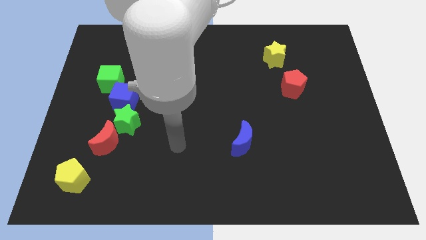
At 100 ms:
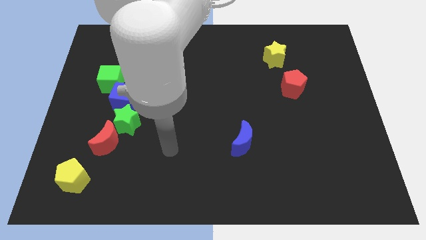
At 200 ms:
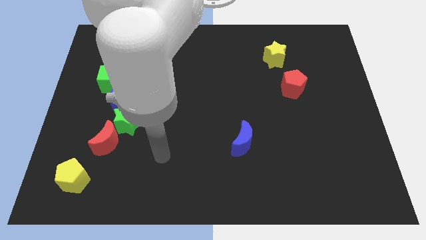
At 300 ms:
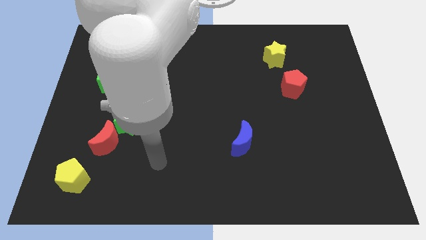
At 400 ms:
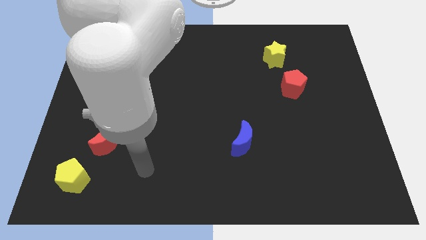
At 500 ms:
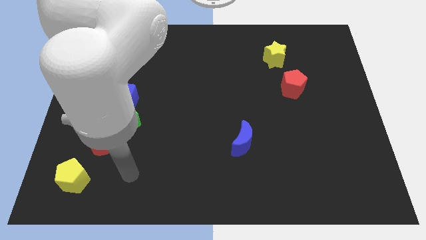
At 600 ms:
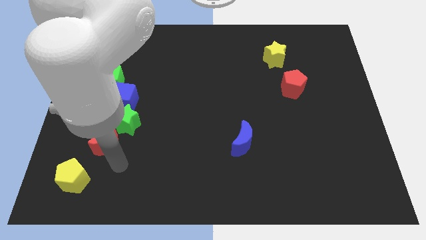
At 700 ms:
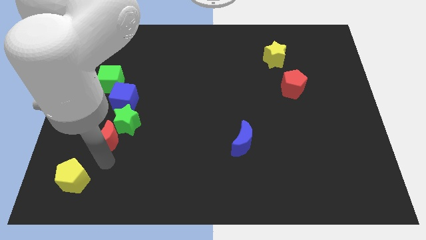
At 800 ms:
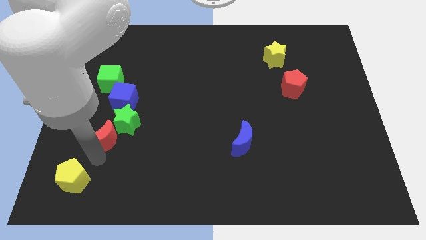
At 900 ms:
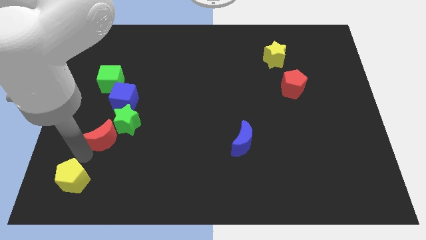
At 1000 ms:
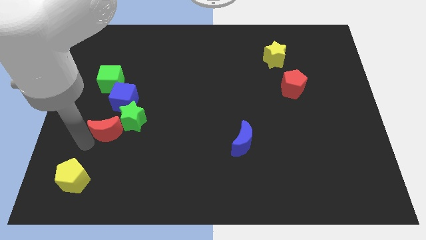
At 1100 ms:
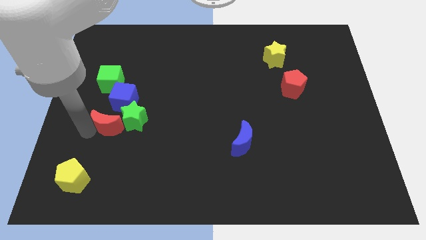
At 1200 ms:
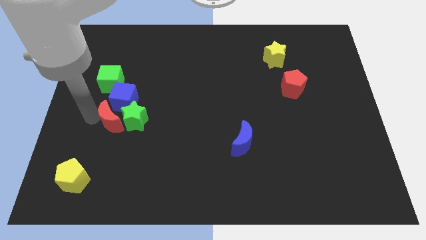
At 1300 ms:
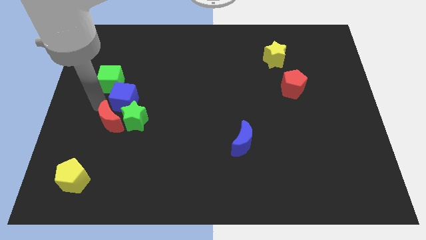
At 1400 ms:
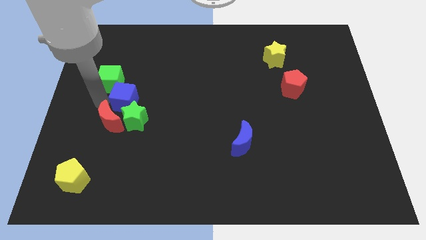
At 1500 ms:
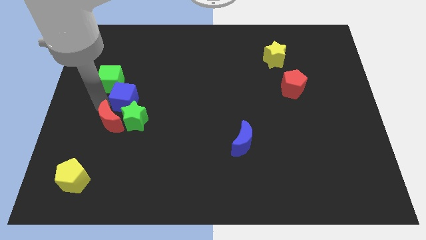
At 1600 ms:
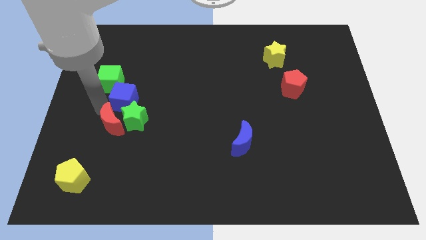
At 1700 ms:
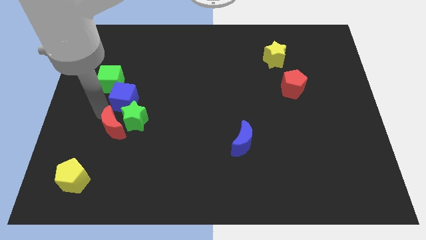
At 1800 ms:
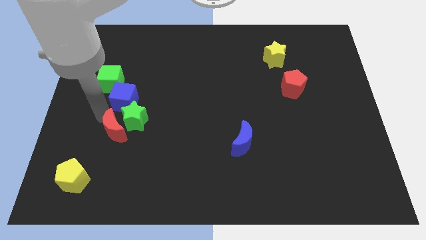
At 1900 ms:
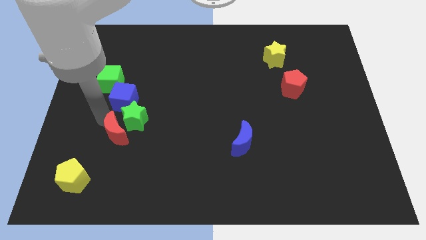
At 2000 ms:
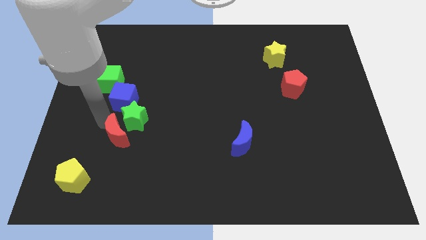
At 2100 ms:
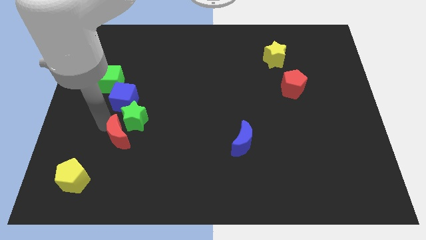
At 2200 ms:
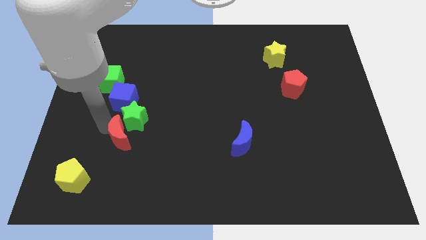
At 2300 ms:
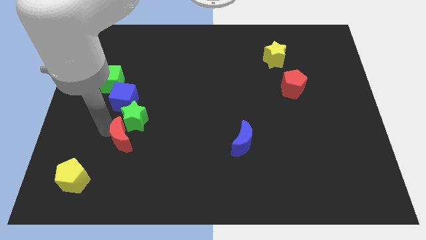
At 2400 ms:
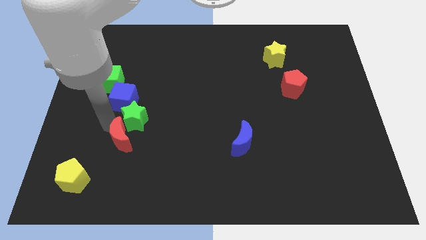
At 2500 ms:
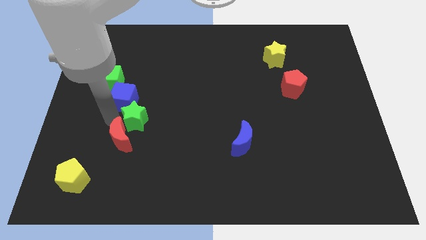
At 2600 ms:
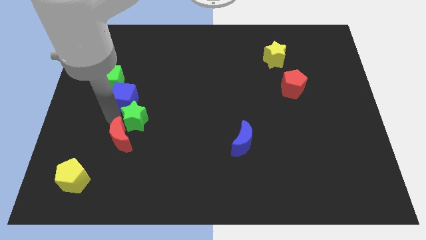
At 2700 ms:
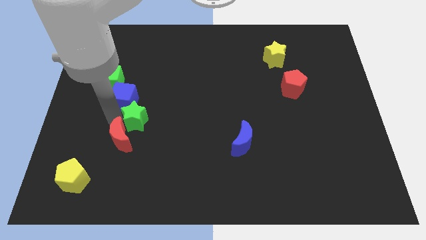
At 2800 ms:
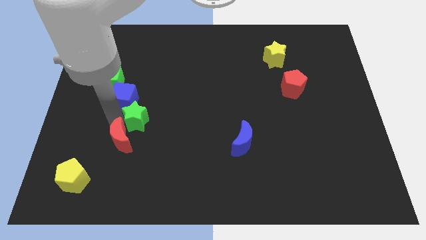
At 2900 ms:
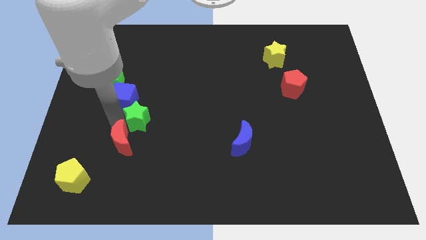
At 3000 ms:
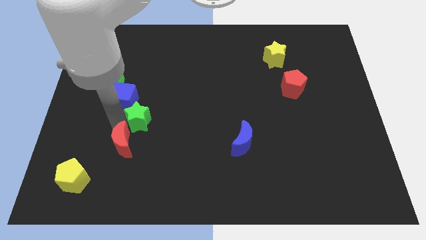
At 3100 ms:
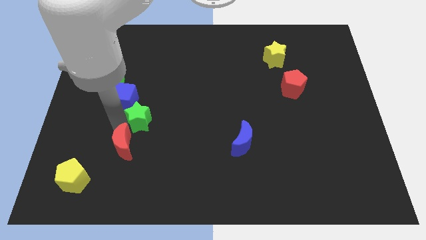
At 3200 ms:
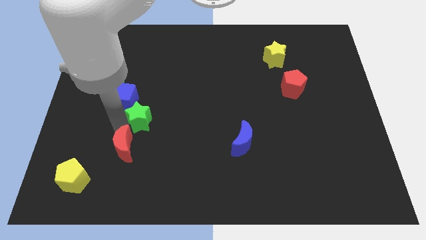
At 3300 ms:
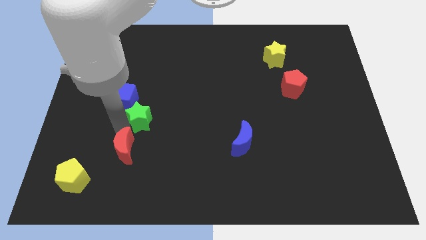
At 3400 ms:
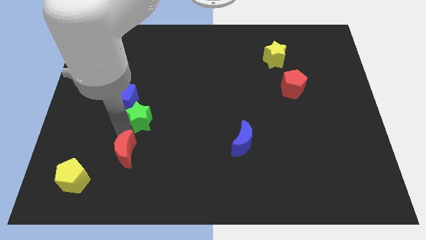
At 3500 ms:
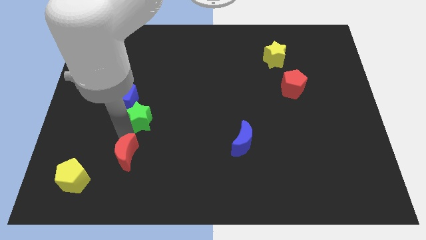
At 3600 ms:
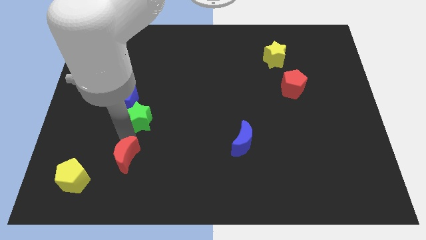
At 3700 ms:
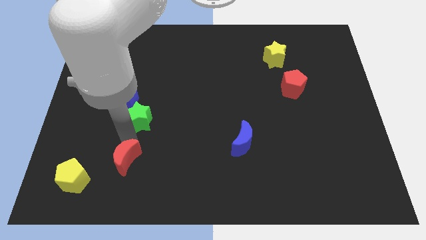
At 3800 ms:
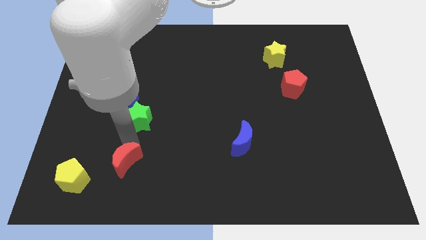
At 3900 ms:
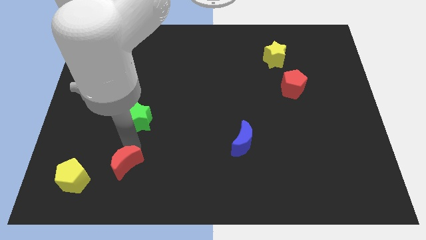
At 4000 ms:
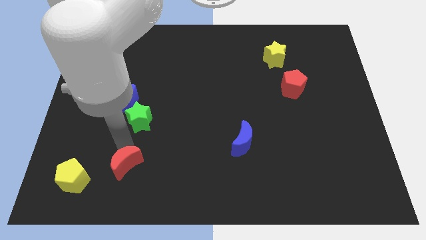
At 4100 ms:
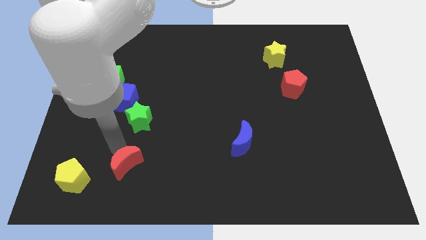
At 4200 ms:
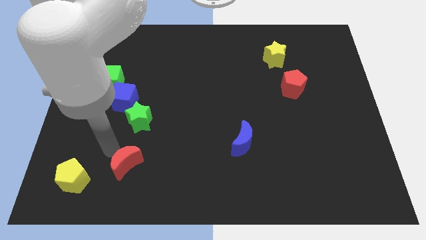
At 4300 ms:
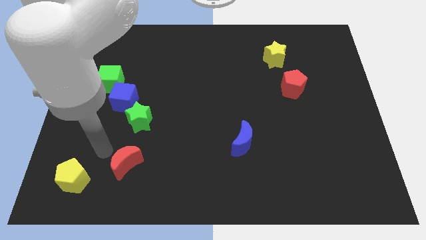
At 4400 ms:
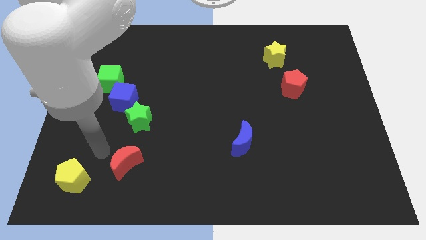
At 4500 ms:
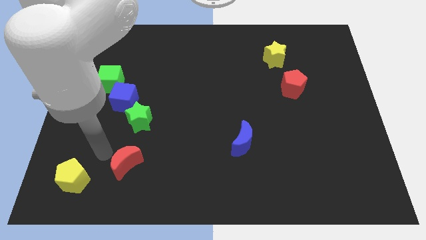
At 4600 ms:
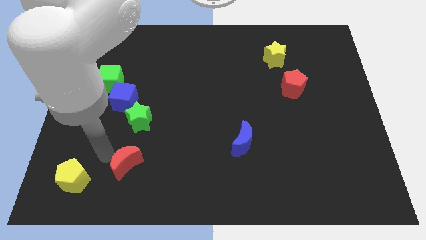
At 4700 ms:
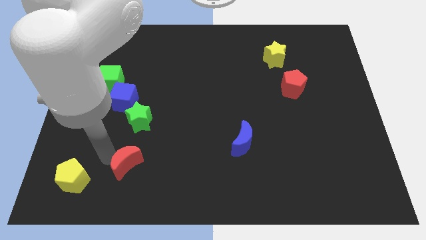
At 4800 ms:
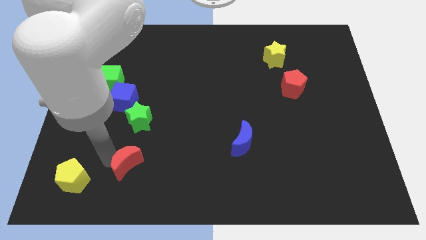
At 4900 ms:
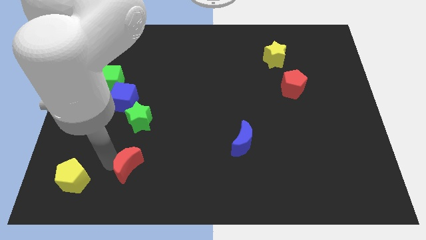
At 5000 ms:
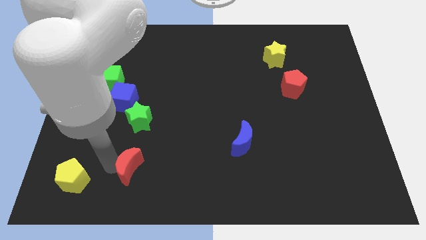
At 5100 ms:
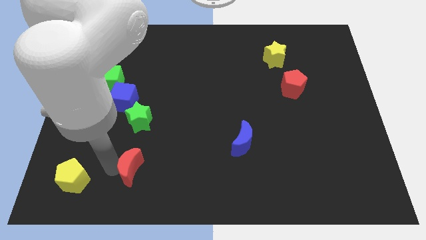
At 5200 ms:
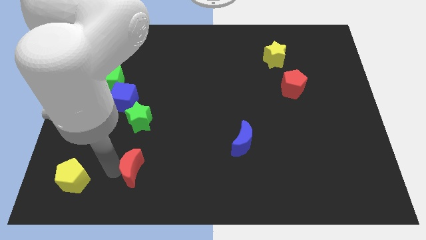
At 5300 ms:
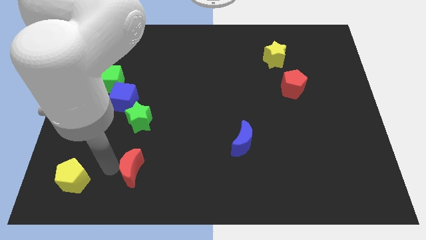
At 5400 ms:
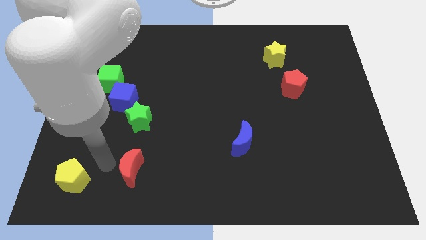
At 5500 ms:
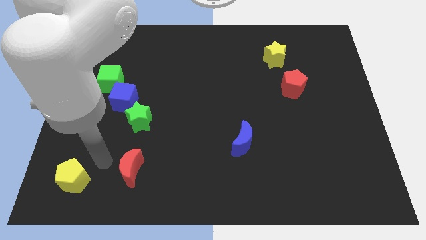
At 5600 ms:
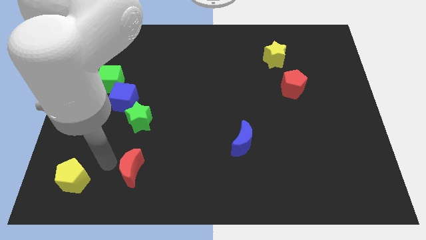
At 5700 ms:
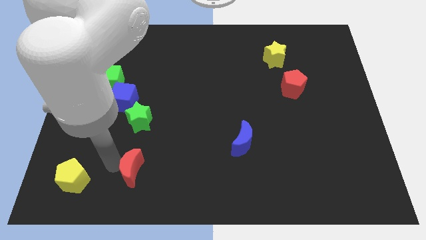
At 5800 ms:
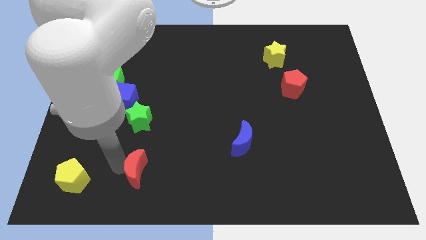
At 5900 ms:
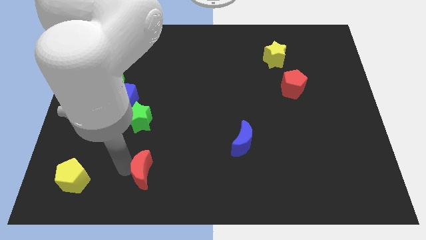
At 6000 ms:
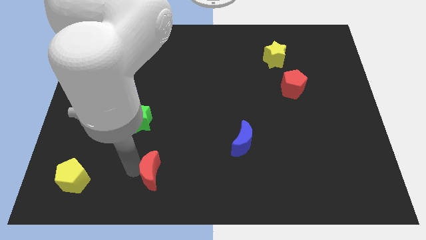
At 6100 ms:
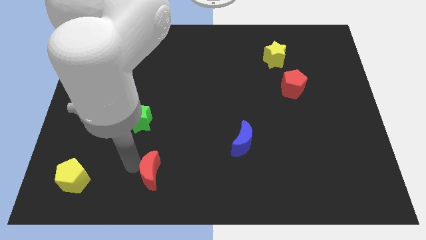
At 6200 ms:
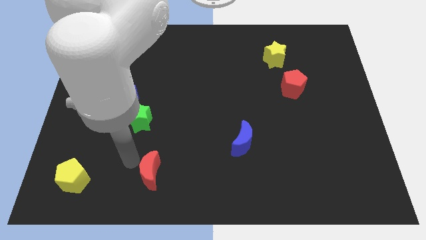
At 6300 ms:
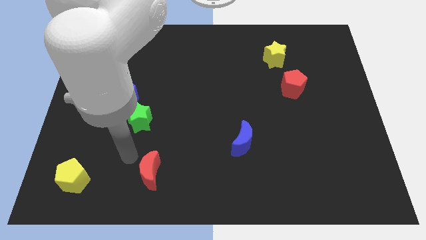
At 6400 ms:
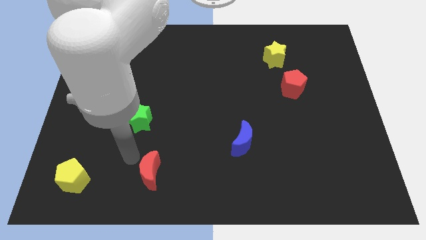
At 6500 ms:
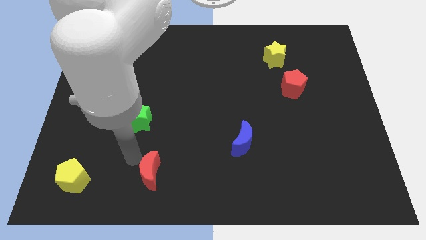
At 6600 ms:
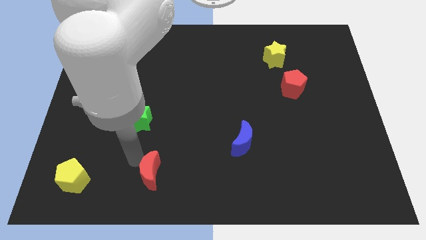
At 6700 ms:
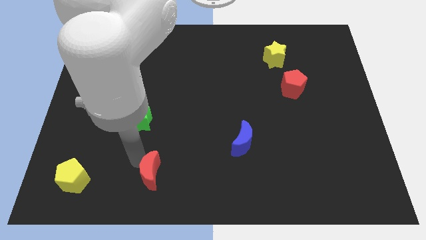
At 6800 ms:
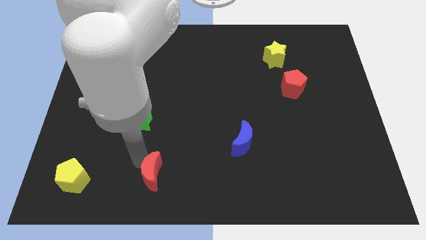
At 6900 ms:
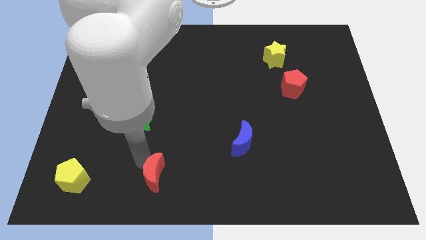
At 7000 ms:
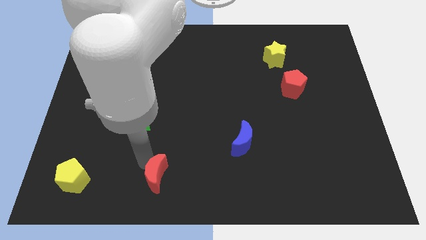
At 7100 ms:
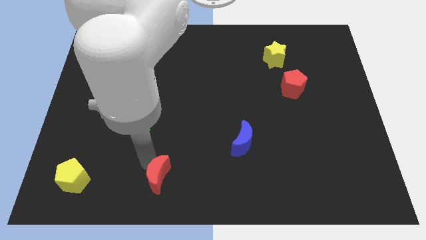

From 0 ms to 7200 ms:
move the red moon to the bottom
